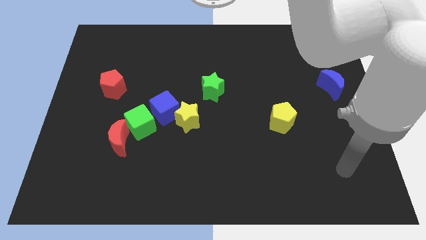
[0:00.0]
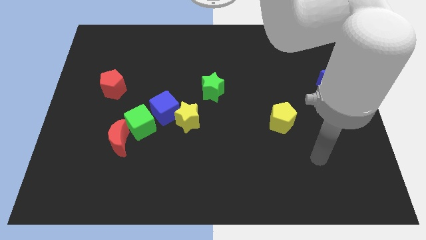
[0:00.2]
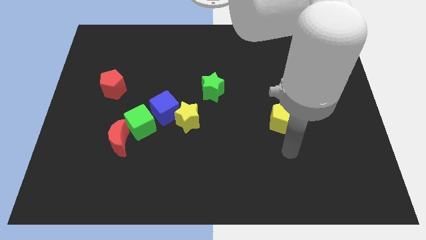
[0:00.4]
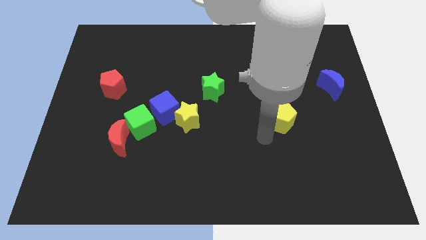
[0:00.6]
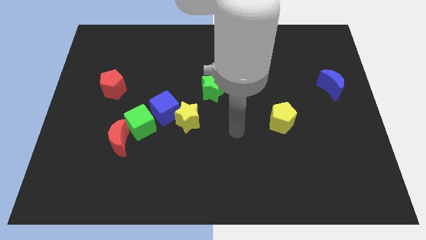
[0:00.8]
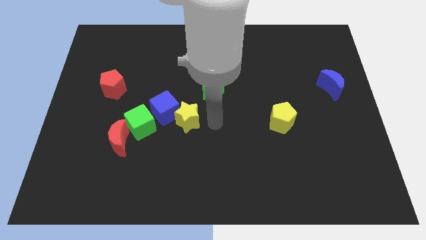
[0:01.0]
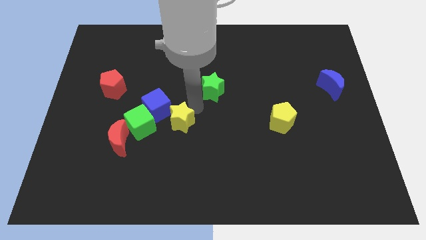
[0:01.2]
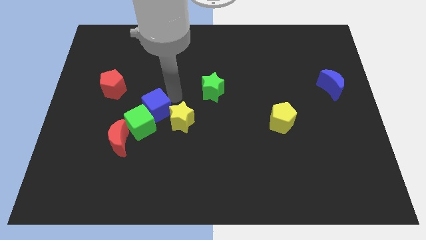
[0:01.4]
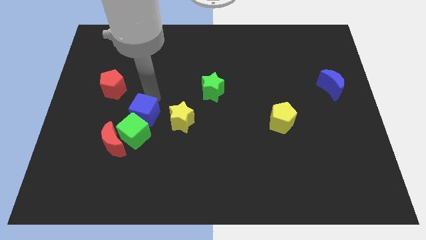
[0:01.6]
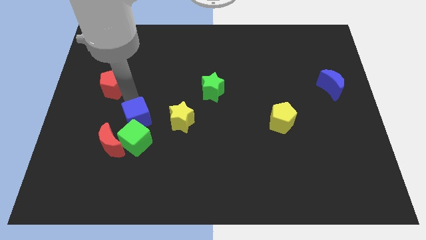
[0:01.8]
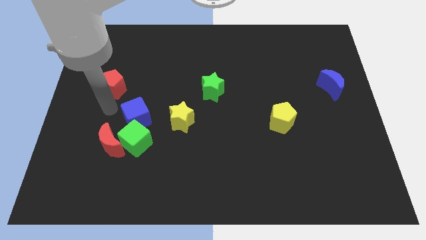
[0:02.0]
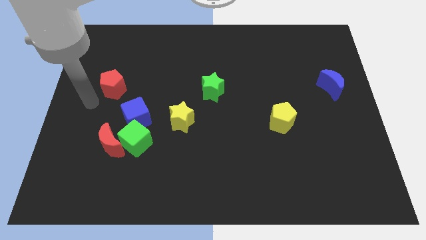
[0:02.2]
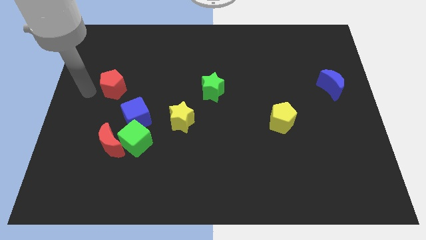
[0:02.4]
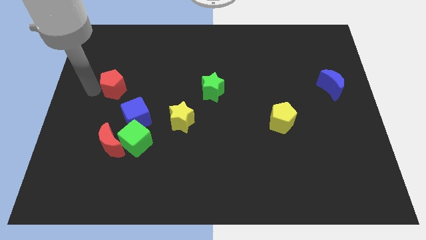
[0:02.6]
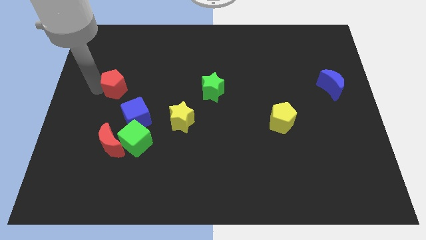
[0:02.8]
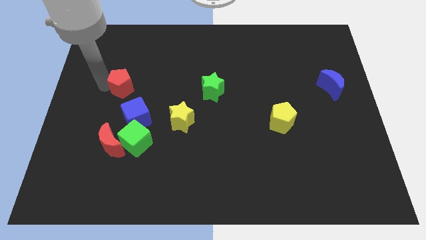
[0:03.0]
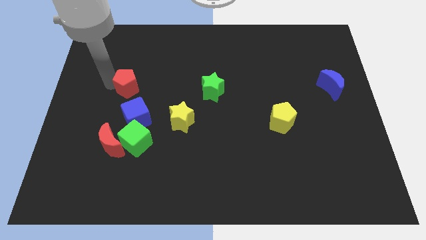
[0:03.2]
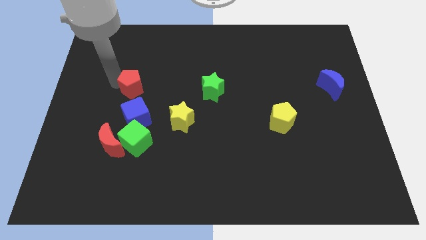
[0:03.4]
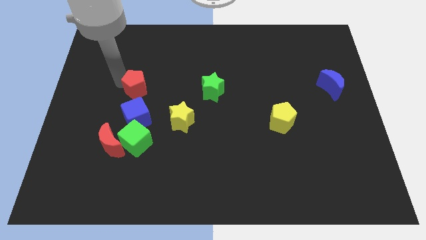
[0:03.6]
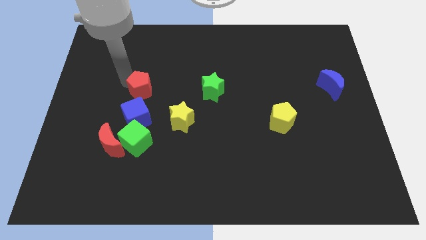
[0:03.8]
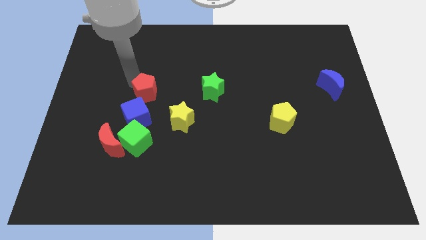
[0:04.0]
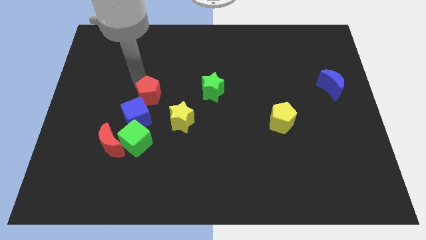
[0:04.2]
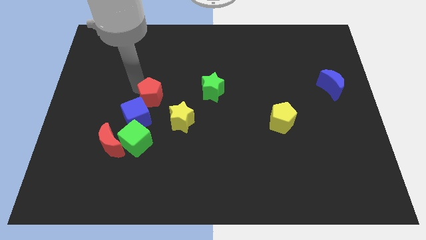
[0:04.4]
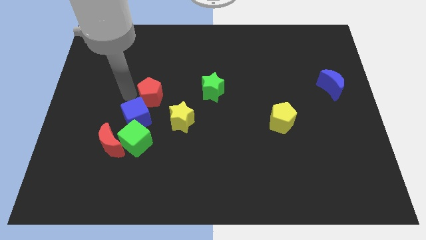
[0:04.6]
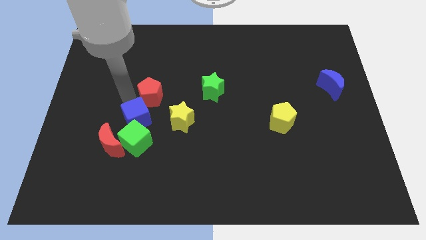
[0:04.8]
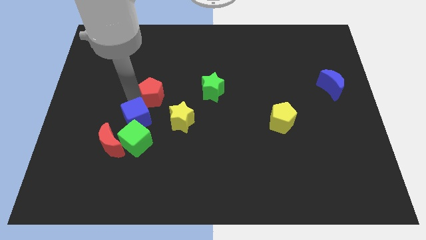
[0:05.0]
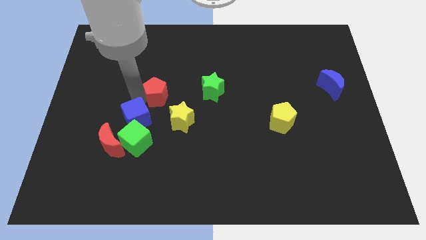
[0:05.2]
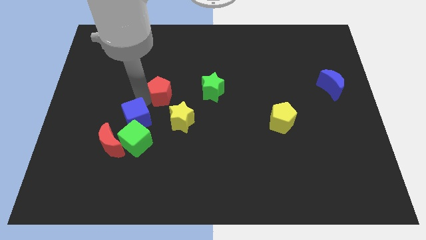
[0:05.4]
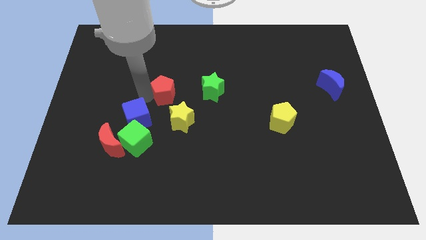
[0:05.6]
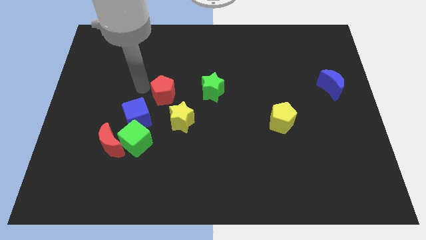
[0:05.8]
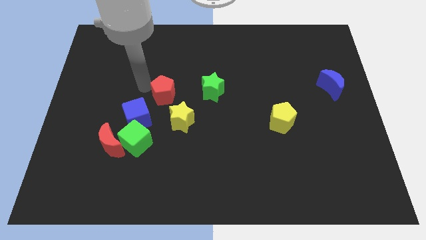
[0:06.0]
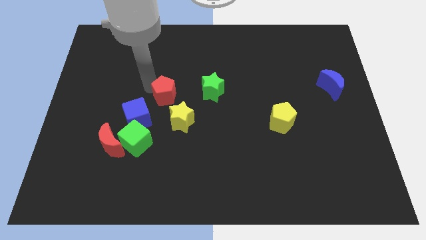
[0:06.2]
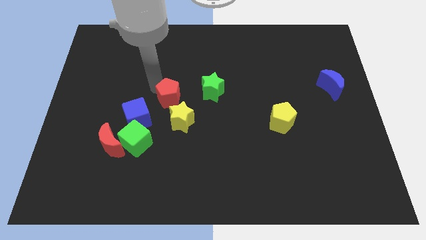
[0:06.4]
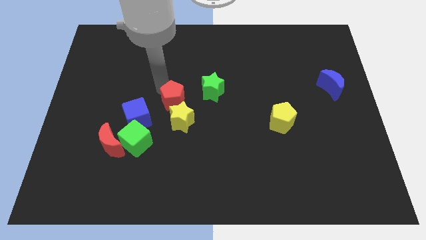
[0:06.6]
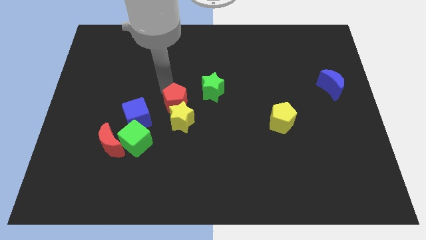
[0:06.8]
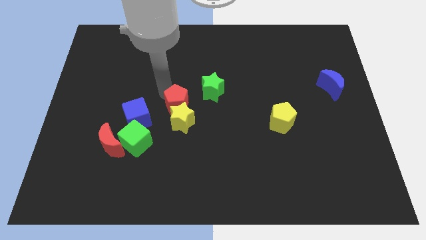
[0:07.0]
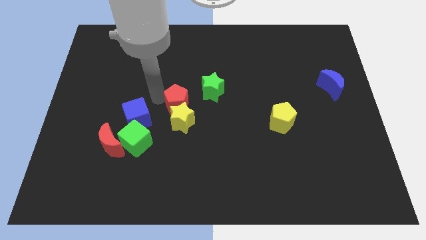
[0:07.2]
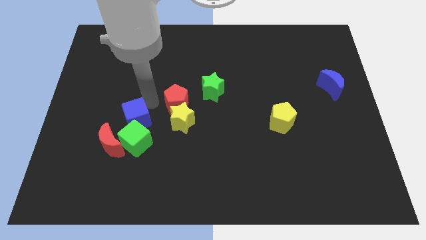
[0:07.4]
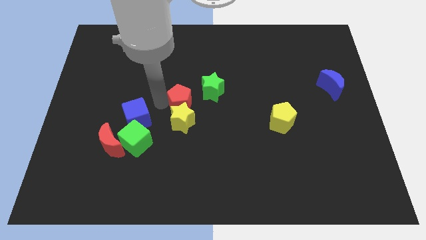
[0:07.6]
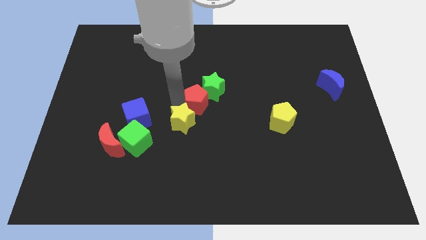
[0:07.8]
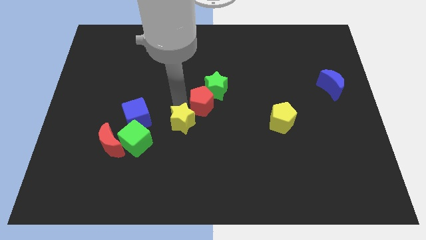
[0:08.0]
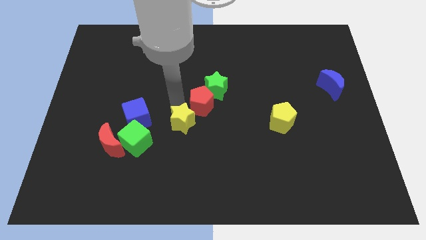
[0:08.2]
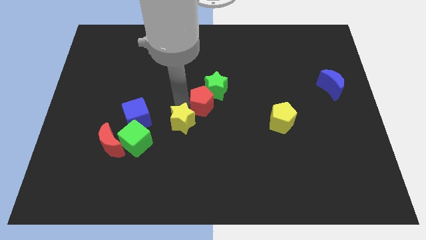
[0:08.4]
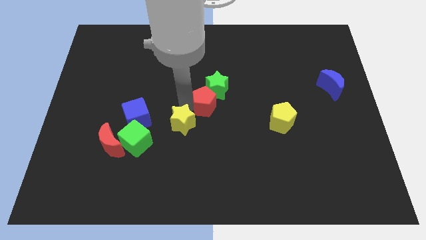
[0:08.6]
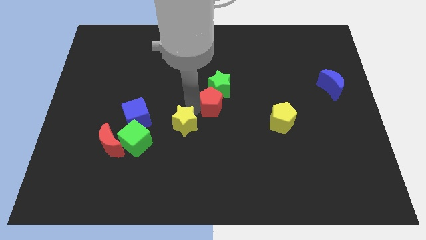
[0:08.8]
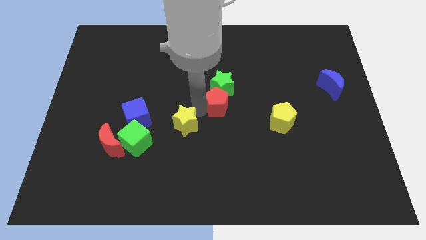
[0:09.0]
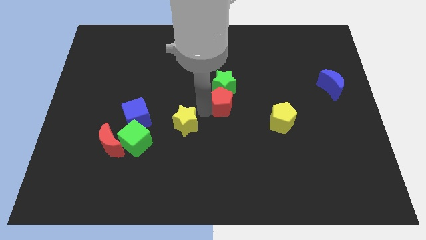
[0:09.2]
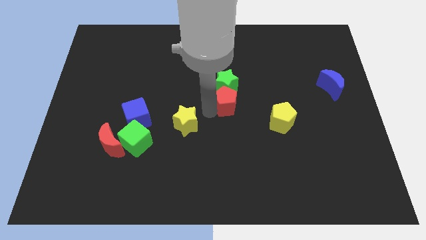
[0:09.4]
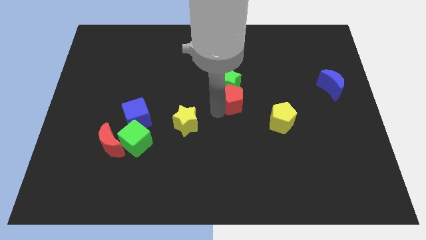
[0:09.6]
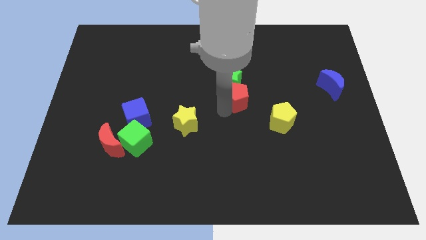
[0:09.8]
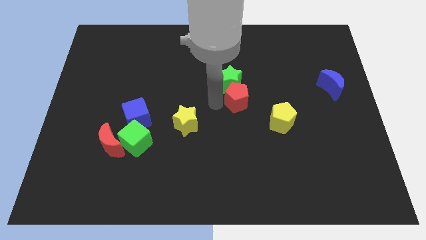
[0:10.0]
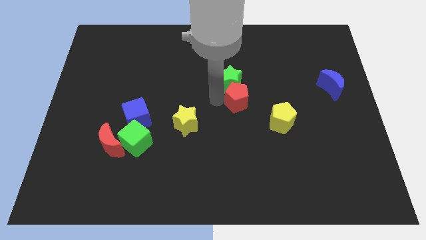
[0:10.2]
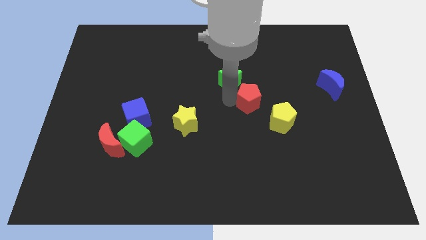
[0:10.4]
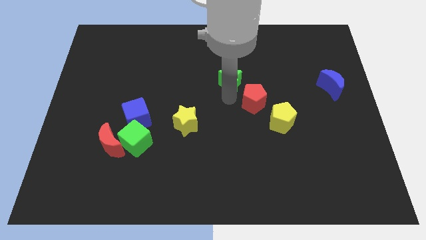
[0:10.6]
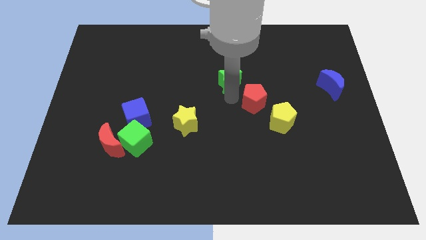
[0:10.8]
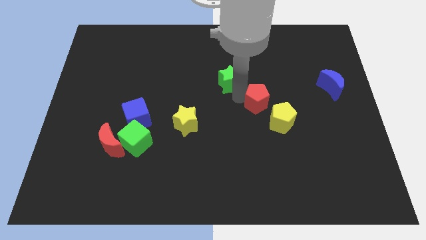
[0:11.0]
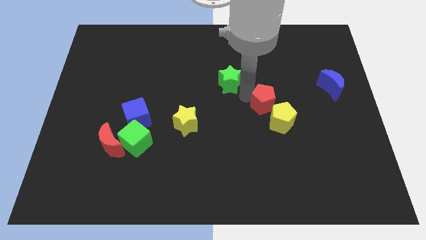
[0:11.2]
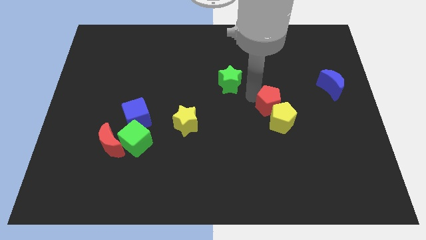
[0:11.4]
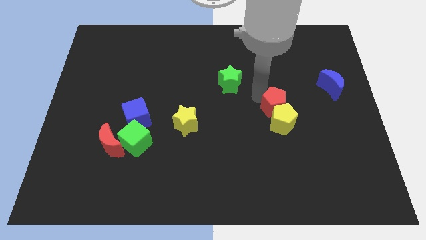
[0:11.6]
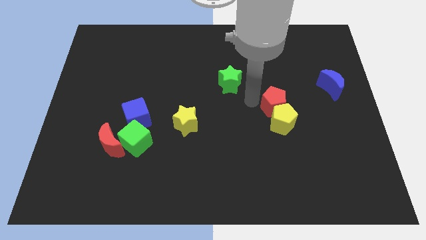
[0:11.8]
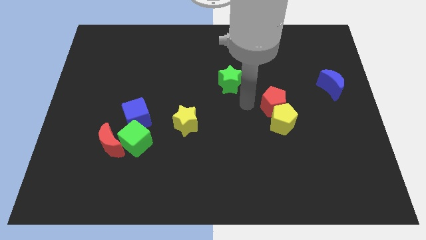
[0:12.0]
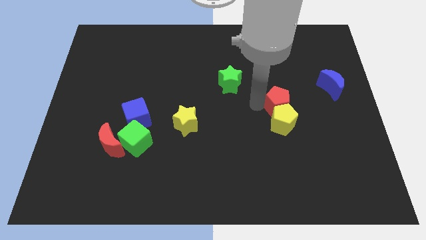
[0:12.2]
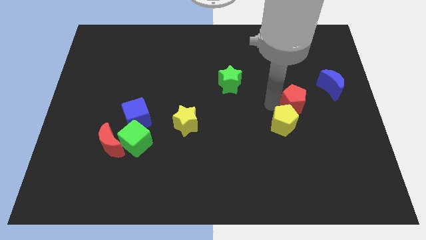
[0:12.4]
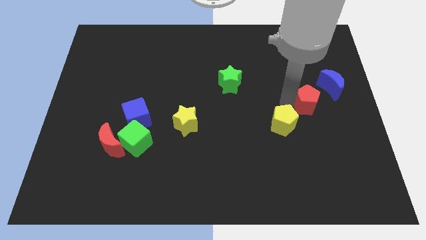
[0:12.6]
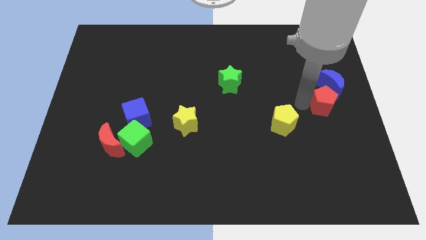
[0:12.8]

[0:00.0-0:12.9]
put the red pentagon to the right side
